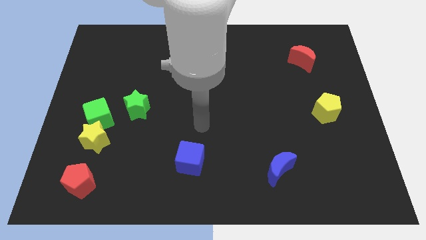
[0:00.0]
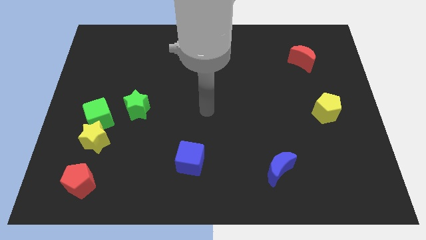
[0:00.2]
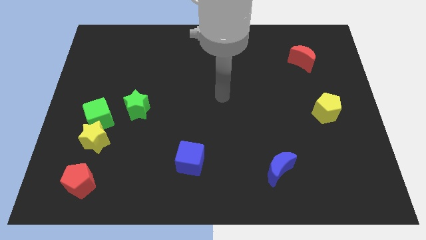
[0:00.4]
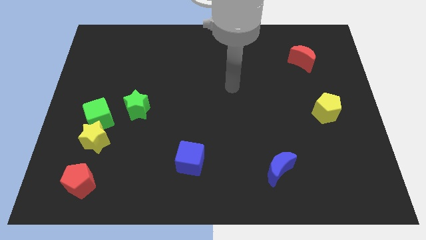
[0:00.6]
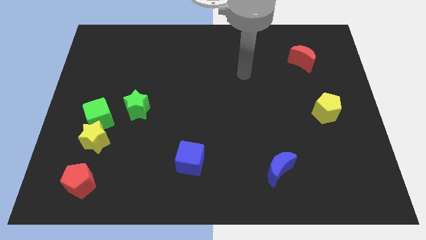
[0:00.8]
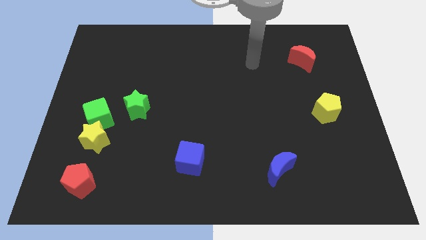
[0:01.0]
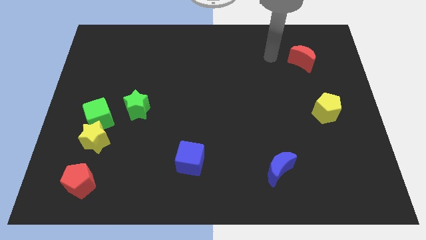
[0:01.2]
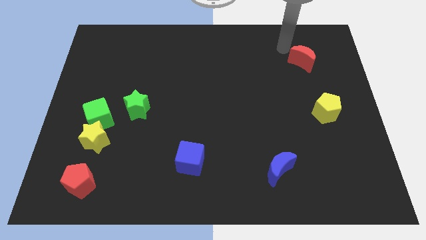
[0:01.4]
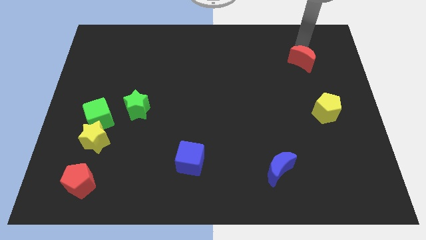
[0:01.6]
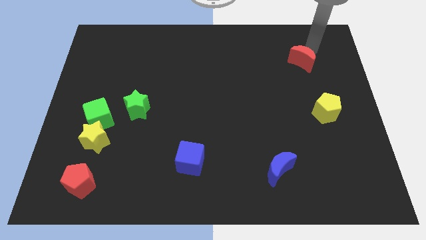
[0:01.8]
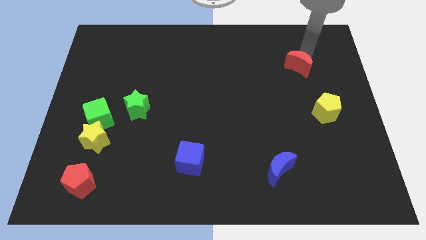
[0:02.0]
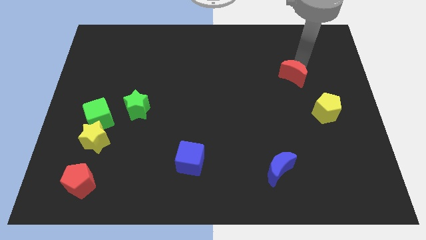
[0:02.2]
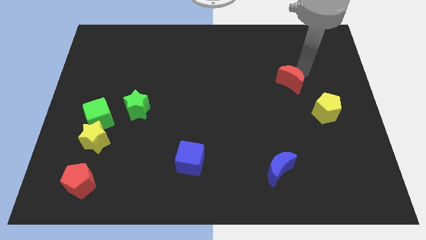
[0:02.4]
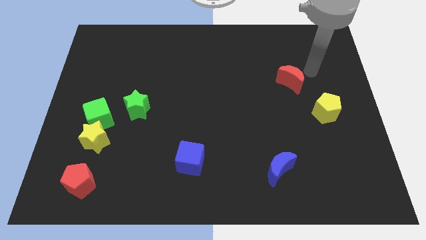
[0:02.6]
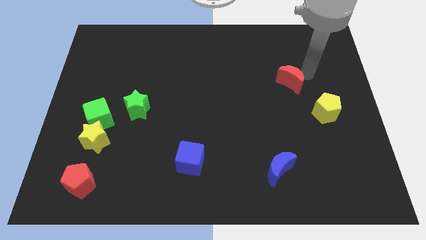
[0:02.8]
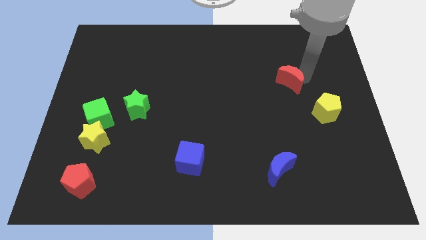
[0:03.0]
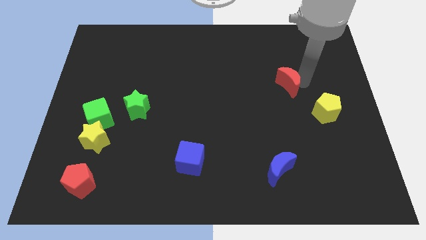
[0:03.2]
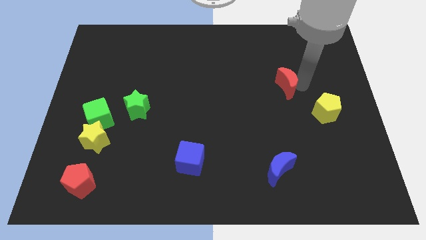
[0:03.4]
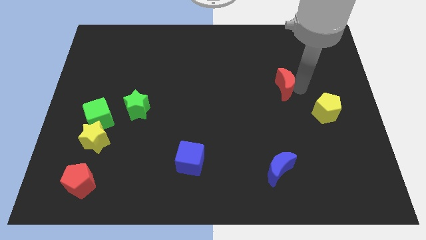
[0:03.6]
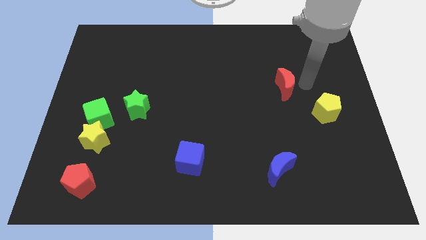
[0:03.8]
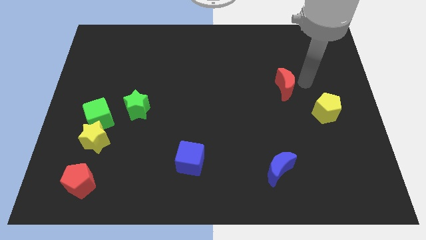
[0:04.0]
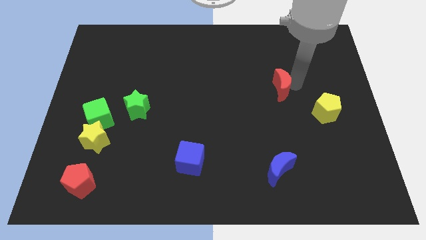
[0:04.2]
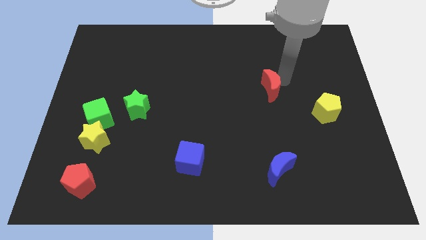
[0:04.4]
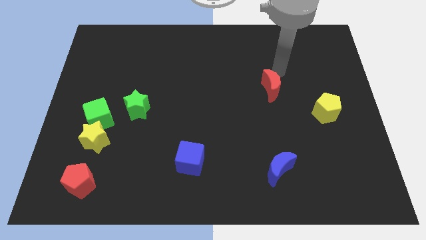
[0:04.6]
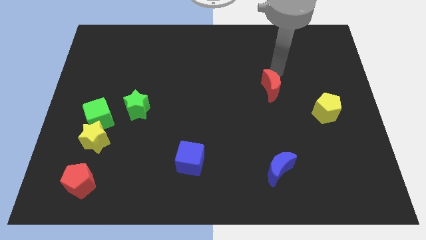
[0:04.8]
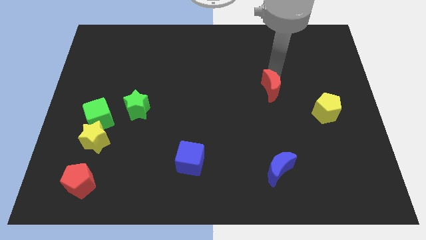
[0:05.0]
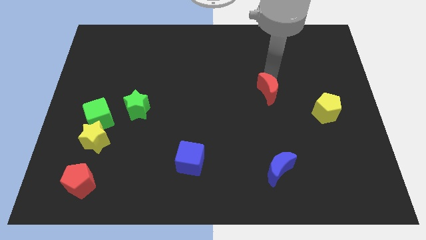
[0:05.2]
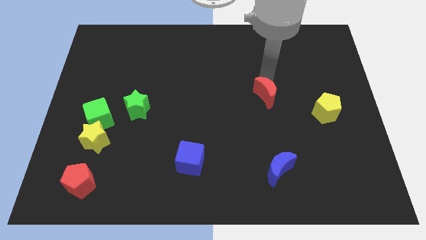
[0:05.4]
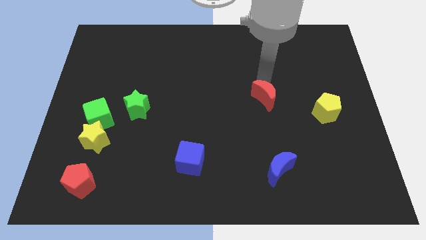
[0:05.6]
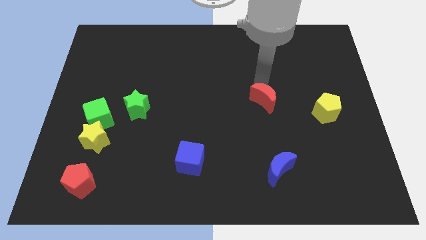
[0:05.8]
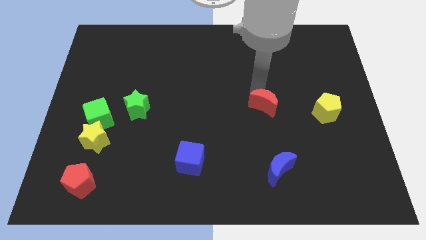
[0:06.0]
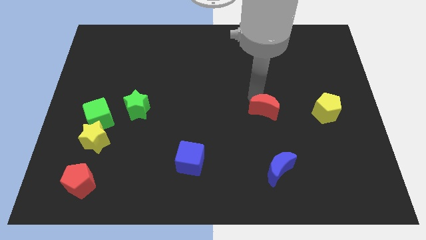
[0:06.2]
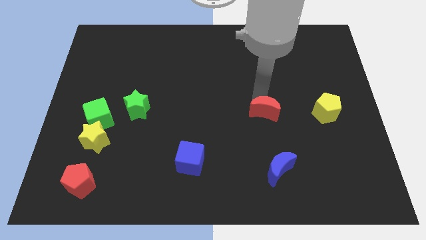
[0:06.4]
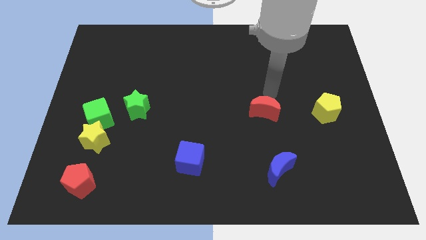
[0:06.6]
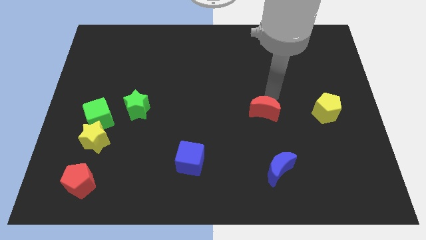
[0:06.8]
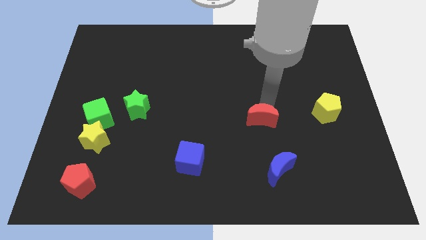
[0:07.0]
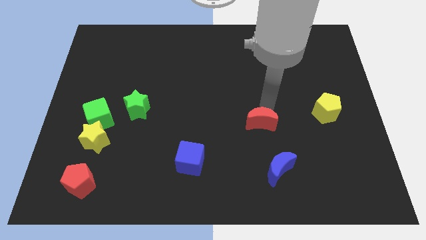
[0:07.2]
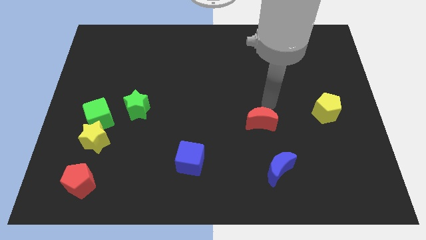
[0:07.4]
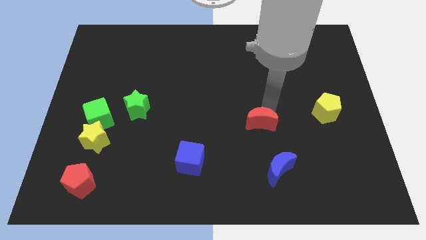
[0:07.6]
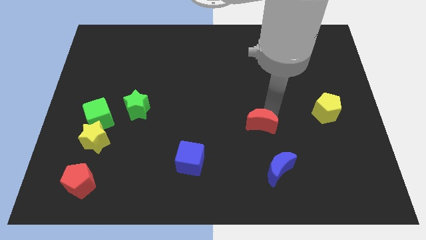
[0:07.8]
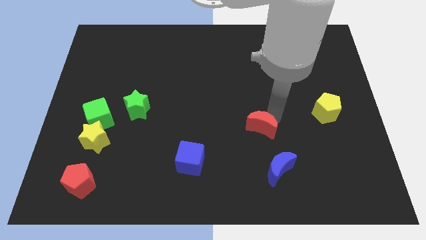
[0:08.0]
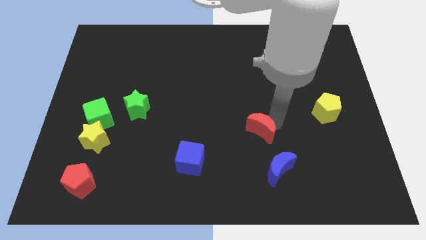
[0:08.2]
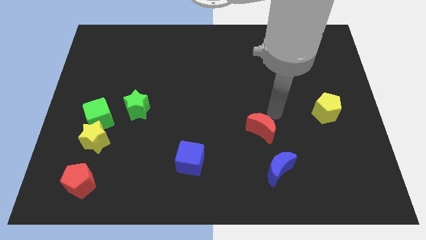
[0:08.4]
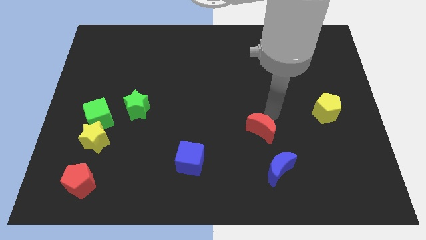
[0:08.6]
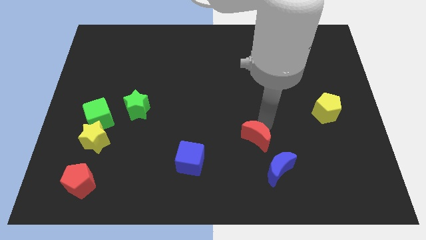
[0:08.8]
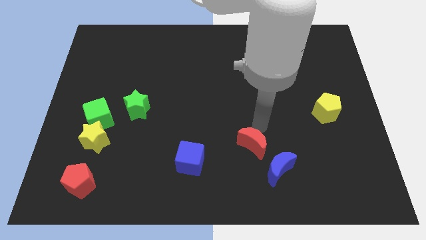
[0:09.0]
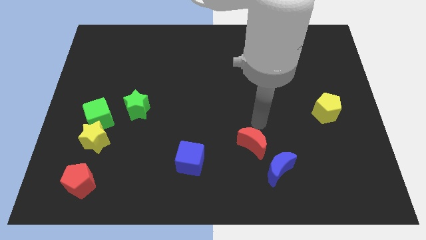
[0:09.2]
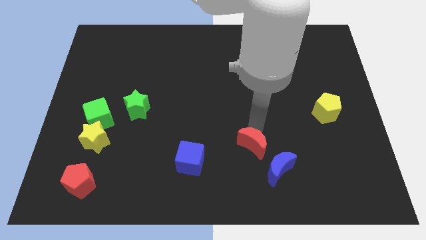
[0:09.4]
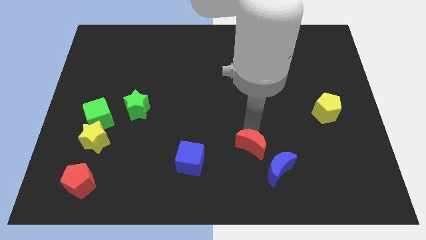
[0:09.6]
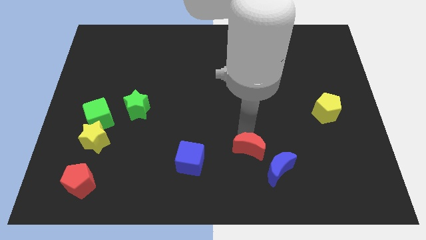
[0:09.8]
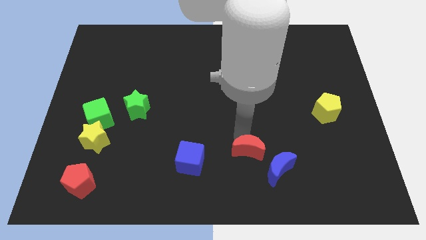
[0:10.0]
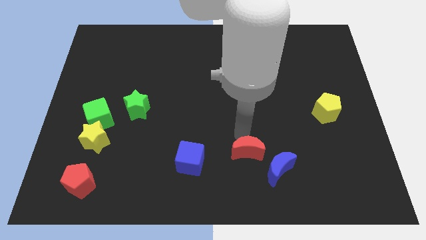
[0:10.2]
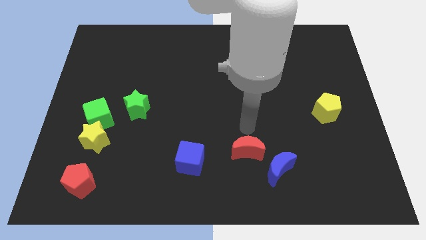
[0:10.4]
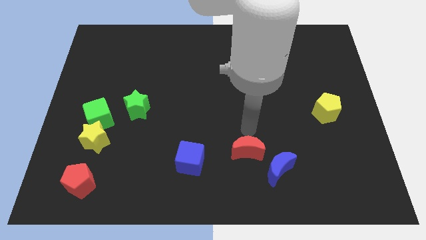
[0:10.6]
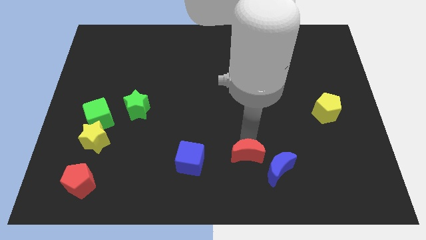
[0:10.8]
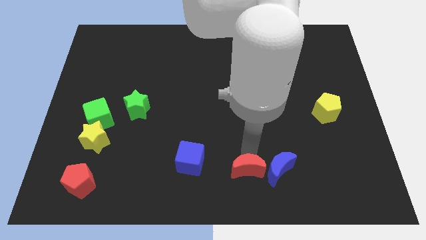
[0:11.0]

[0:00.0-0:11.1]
move the red moon to the bottom side

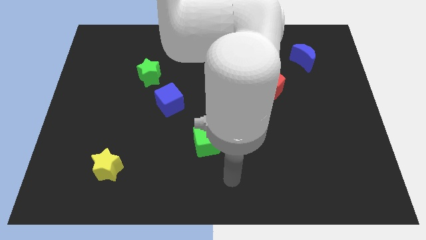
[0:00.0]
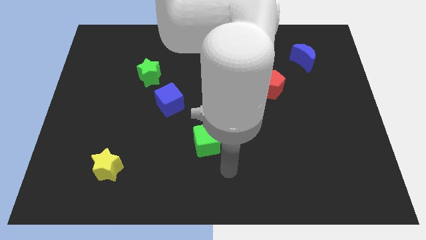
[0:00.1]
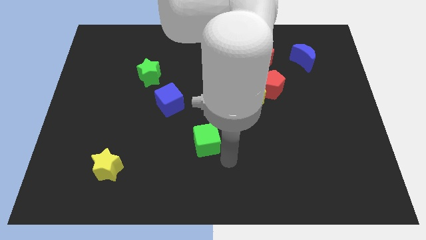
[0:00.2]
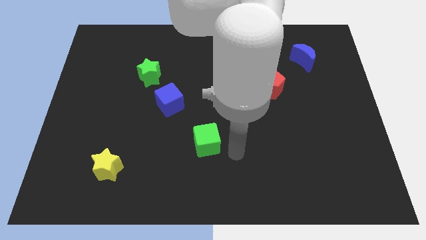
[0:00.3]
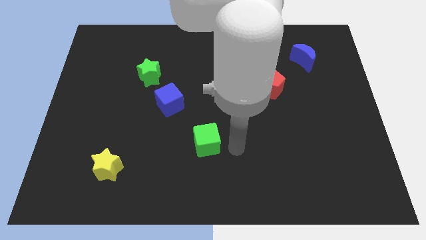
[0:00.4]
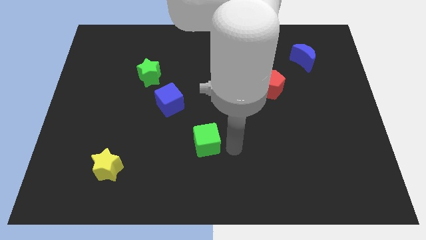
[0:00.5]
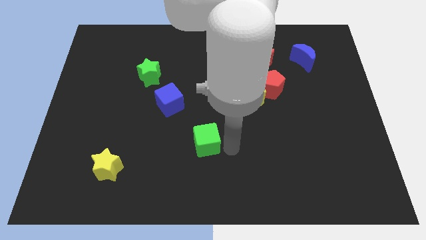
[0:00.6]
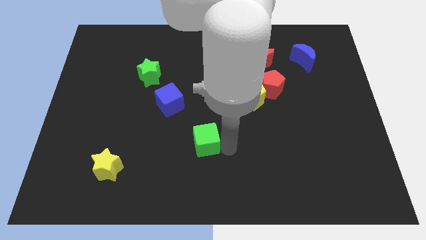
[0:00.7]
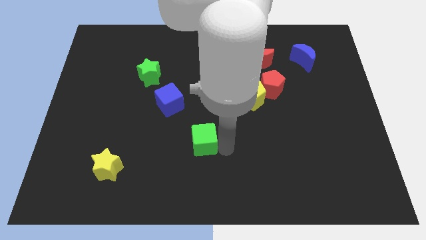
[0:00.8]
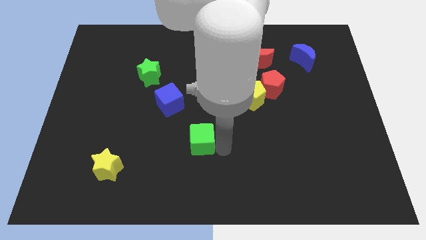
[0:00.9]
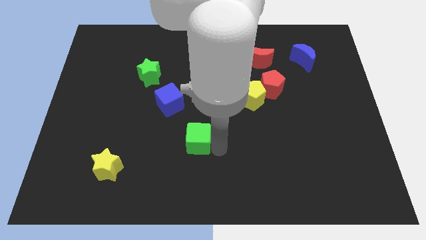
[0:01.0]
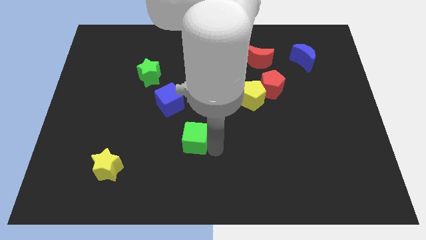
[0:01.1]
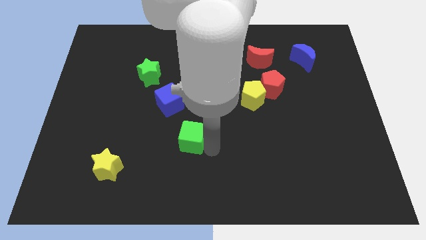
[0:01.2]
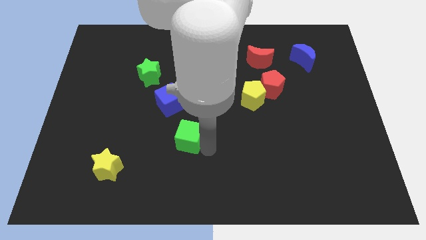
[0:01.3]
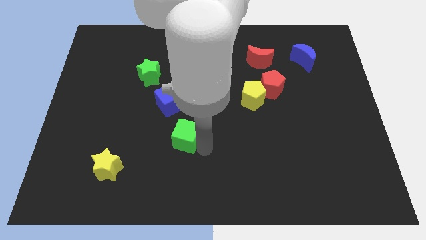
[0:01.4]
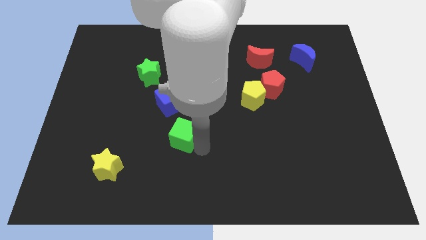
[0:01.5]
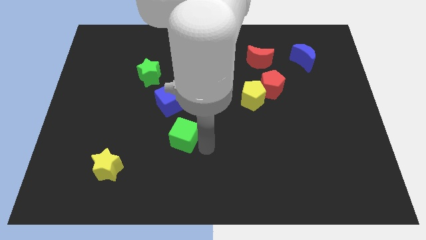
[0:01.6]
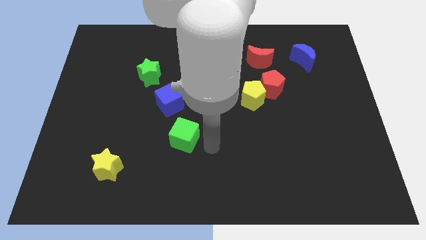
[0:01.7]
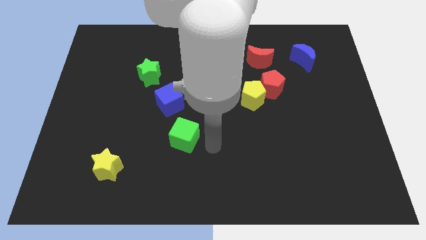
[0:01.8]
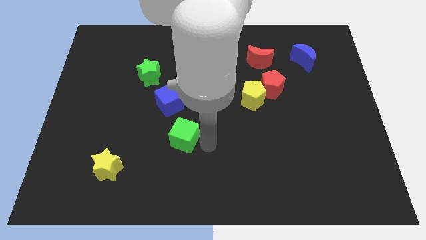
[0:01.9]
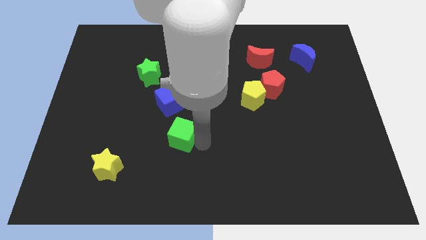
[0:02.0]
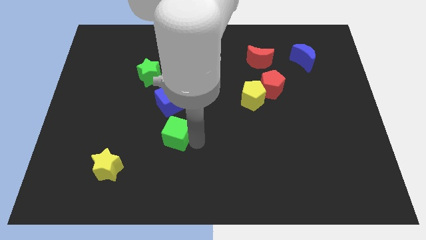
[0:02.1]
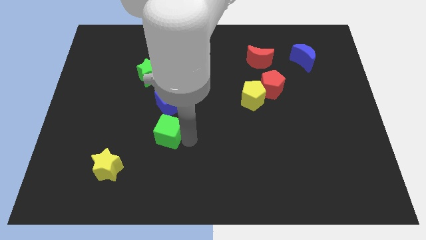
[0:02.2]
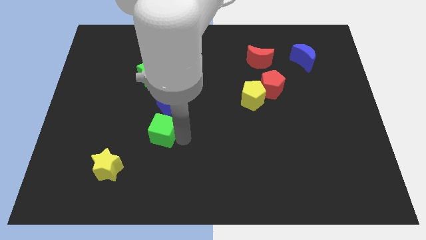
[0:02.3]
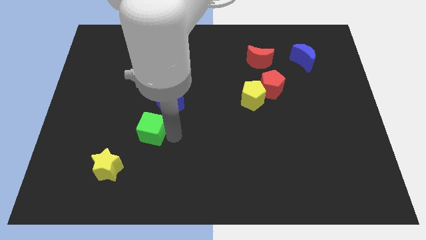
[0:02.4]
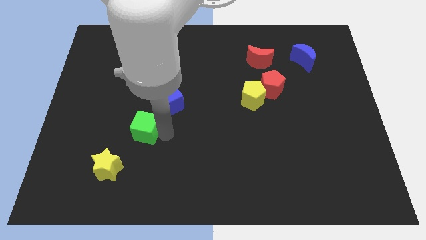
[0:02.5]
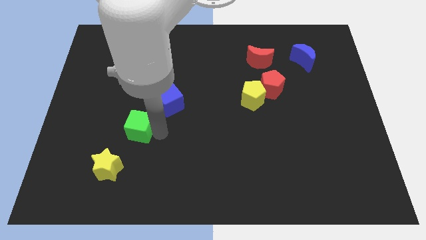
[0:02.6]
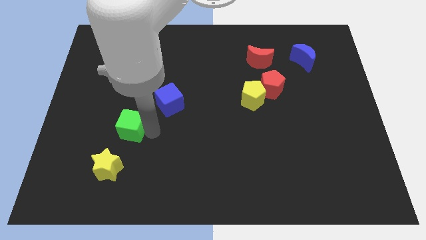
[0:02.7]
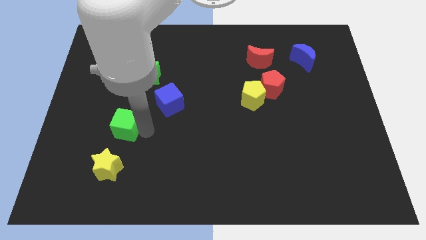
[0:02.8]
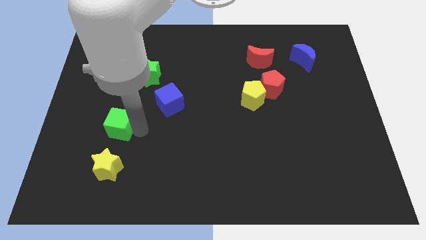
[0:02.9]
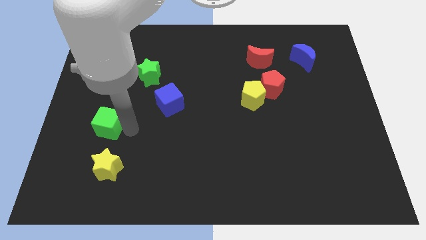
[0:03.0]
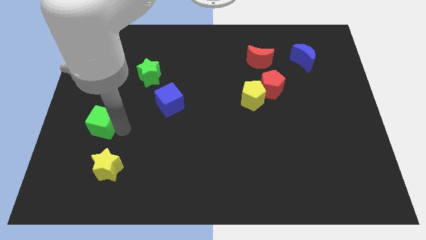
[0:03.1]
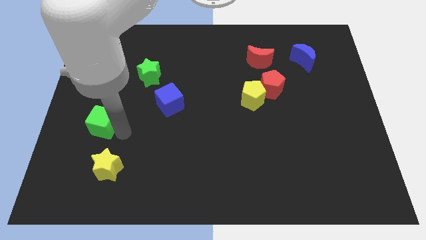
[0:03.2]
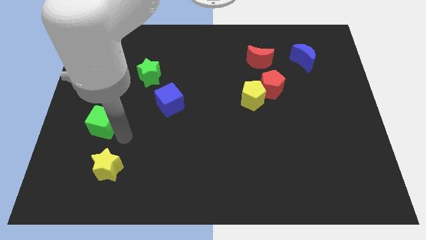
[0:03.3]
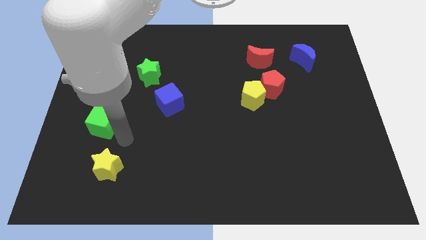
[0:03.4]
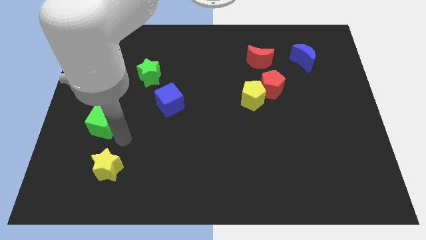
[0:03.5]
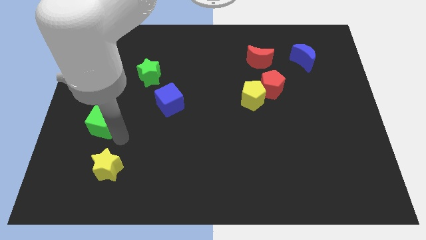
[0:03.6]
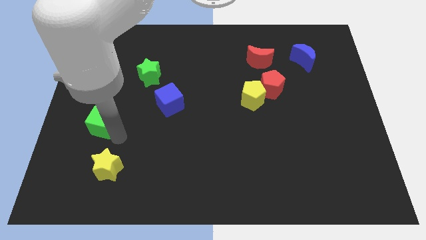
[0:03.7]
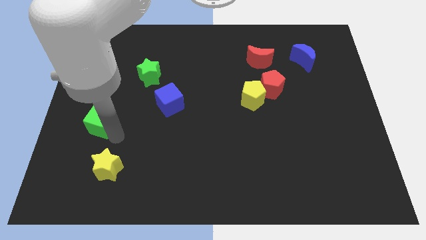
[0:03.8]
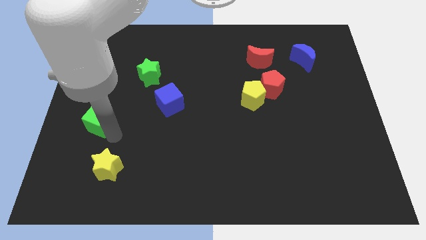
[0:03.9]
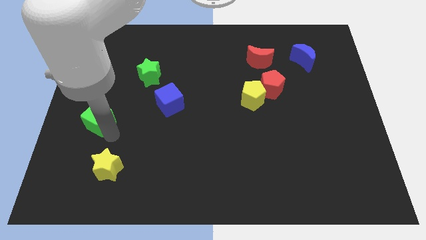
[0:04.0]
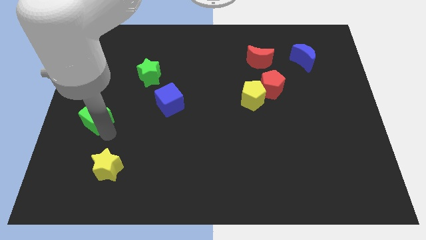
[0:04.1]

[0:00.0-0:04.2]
move the green cube to the left side of the board
